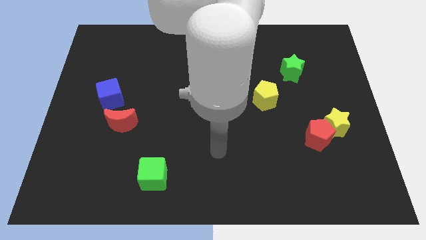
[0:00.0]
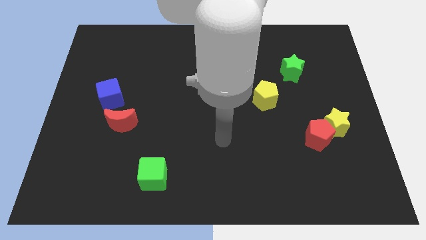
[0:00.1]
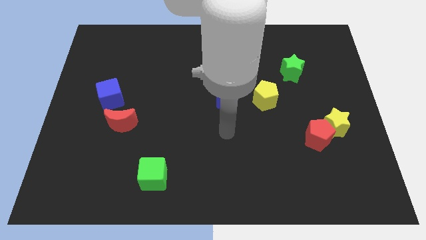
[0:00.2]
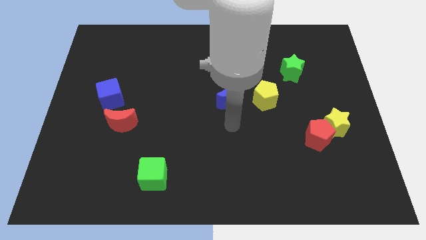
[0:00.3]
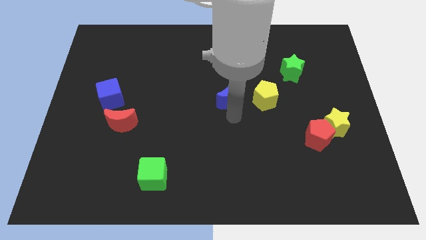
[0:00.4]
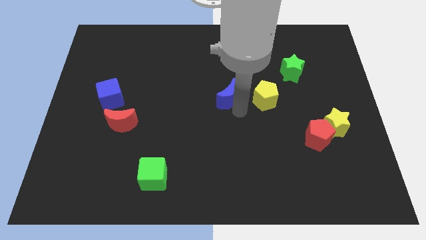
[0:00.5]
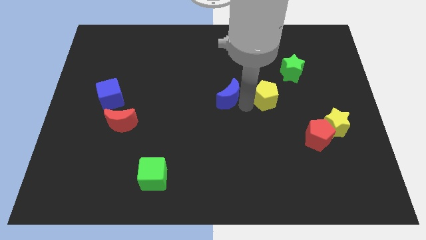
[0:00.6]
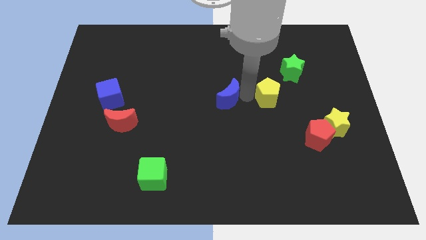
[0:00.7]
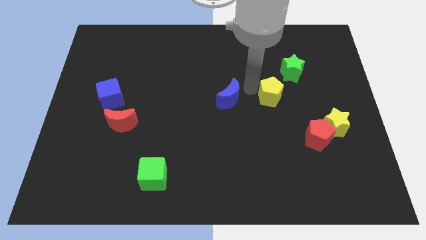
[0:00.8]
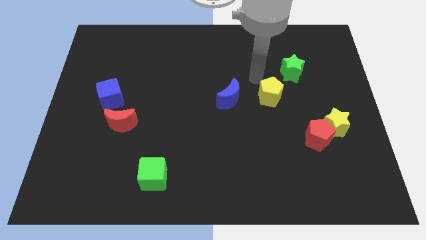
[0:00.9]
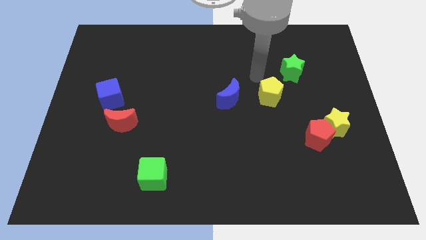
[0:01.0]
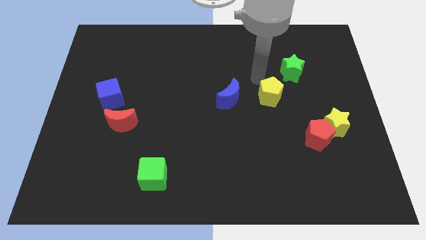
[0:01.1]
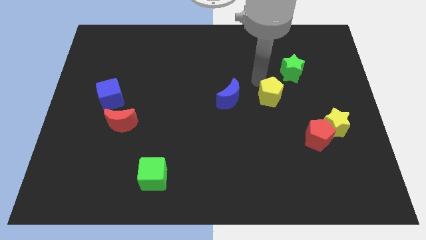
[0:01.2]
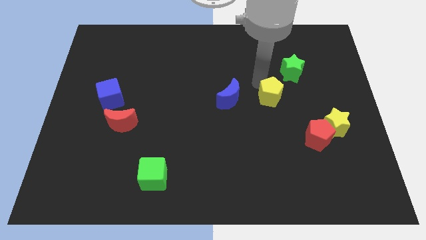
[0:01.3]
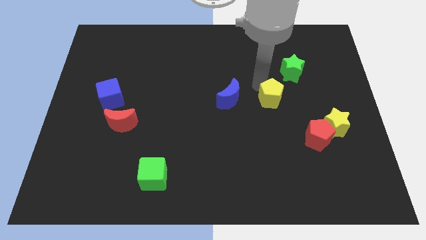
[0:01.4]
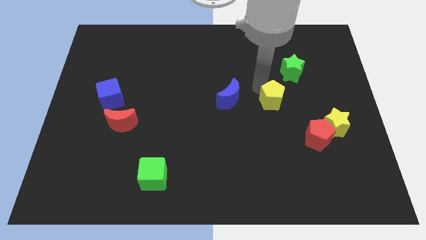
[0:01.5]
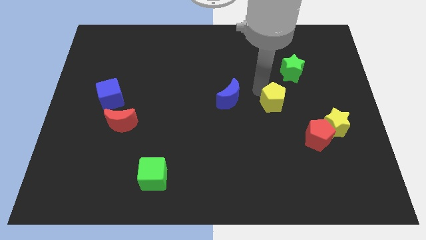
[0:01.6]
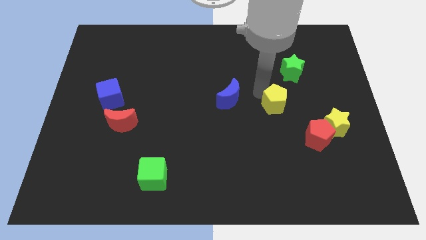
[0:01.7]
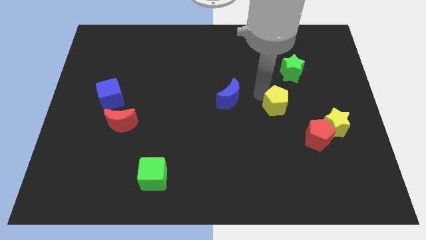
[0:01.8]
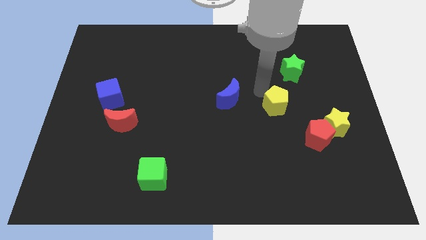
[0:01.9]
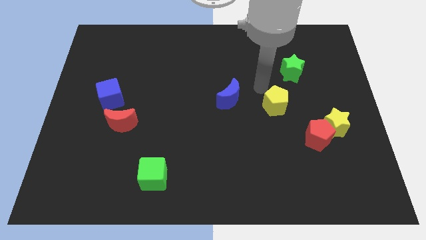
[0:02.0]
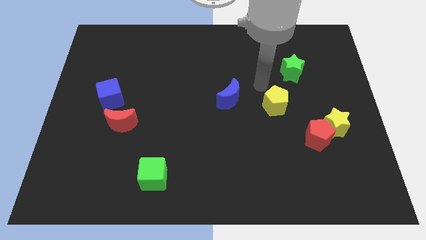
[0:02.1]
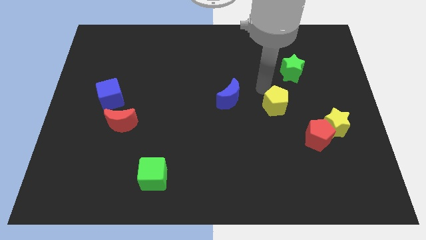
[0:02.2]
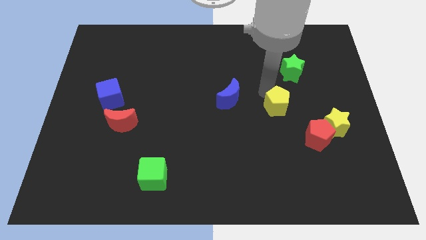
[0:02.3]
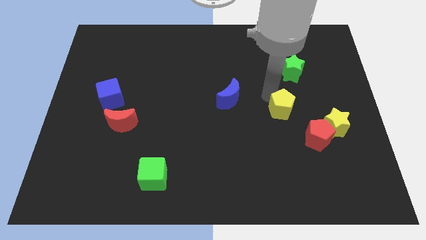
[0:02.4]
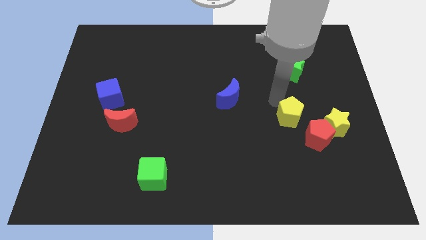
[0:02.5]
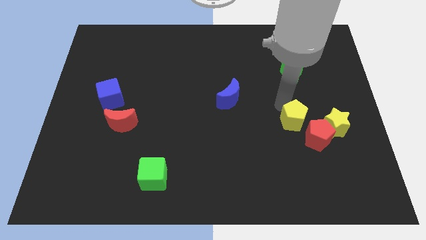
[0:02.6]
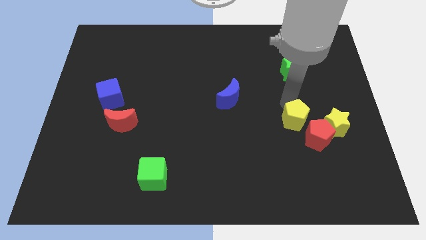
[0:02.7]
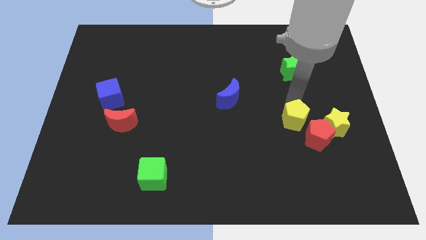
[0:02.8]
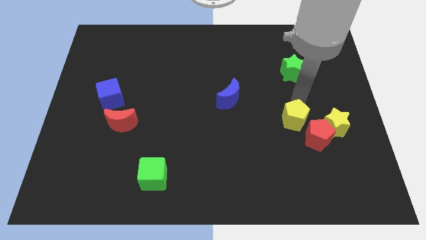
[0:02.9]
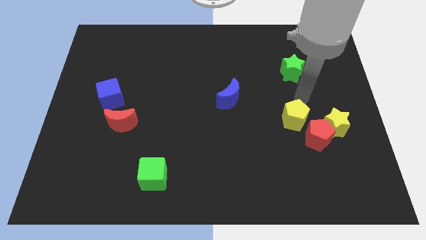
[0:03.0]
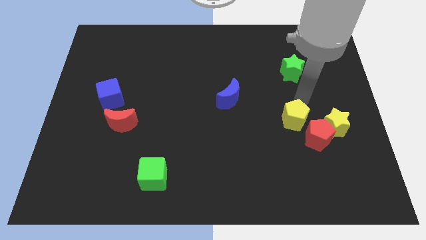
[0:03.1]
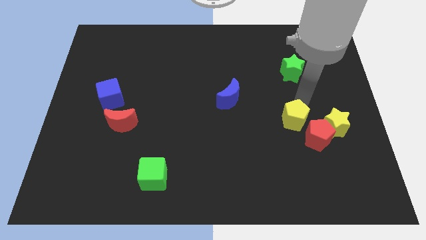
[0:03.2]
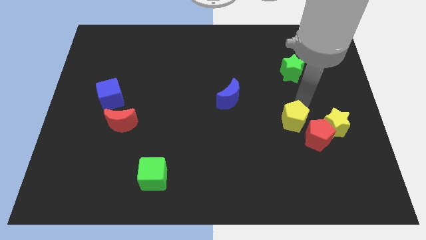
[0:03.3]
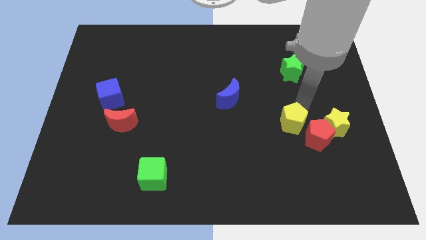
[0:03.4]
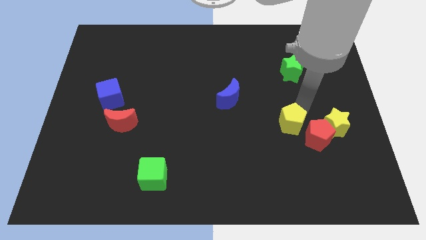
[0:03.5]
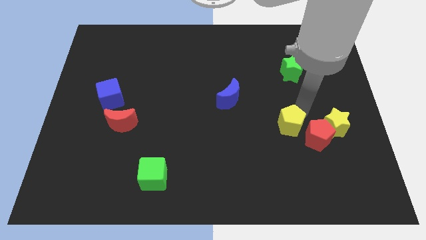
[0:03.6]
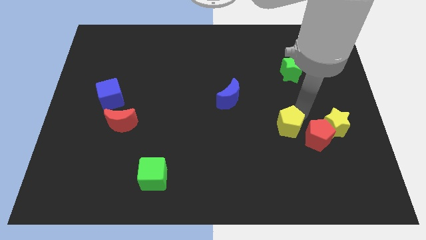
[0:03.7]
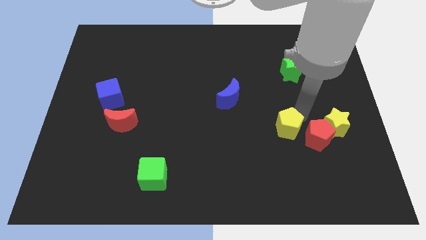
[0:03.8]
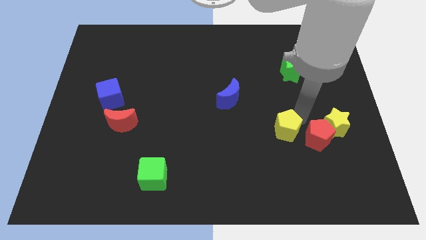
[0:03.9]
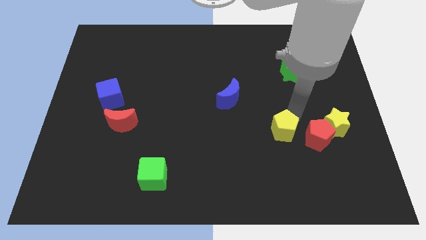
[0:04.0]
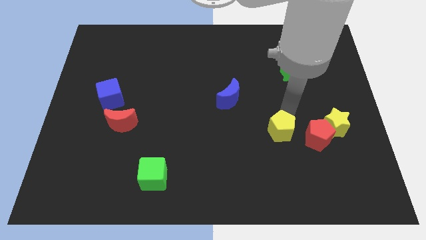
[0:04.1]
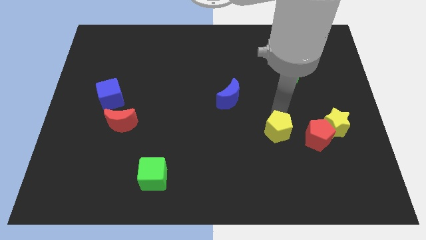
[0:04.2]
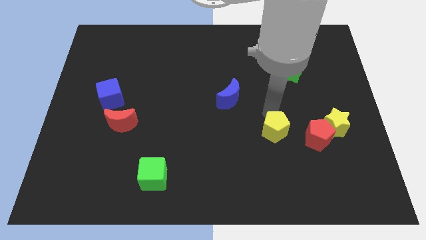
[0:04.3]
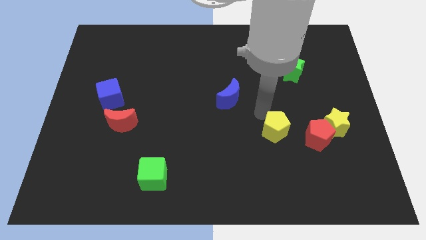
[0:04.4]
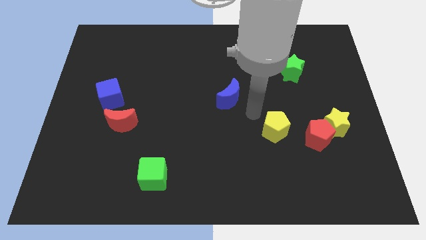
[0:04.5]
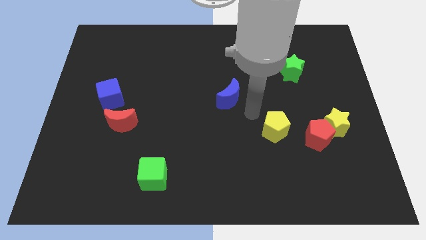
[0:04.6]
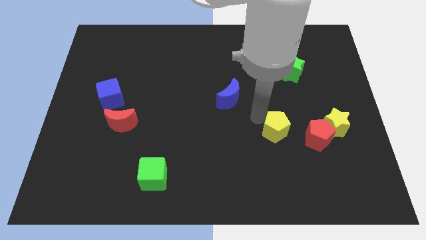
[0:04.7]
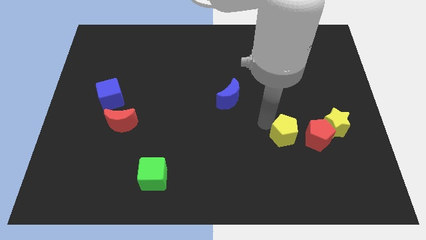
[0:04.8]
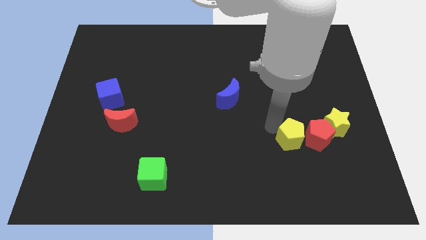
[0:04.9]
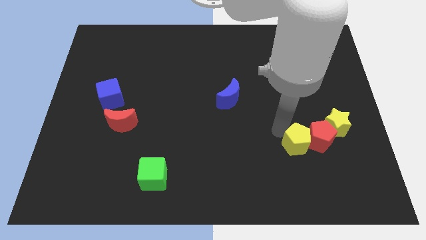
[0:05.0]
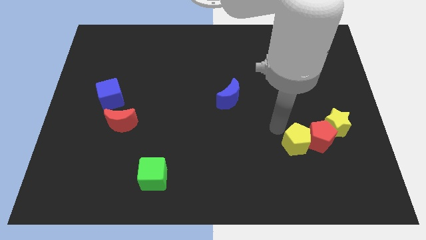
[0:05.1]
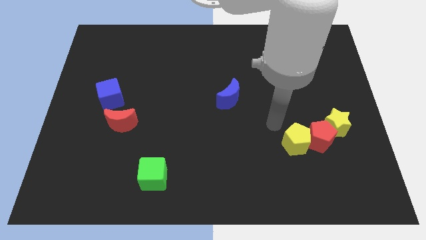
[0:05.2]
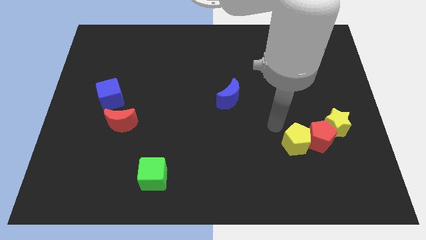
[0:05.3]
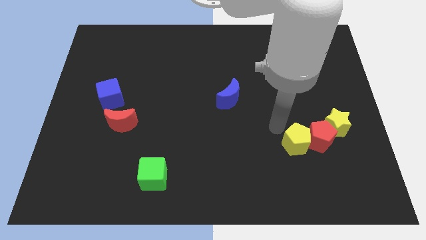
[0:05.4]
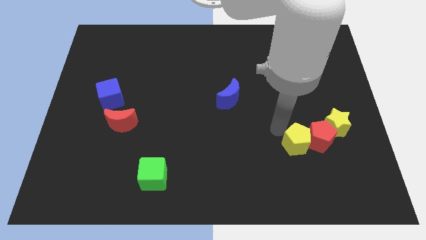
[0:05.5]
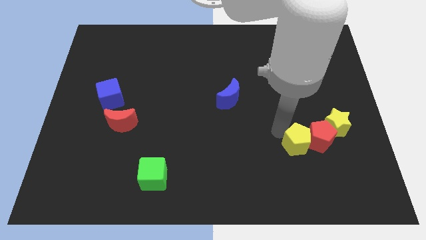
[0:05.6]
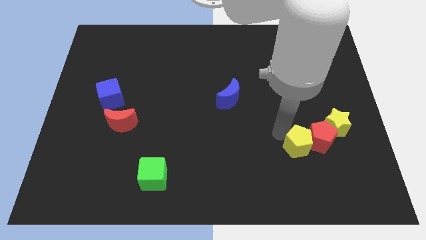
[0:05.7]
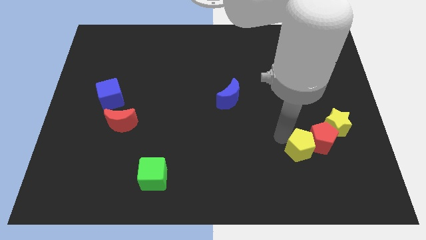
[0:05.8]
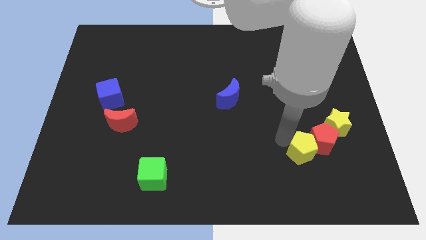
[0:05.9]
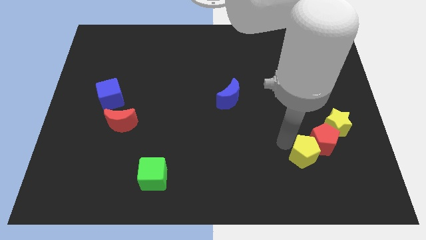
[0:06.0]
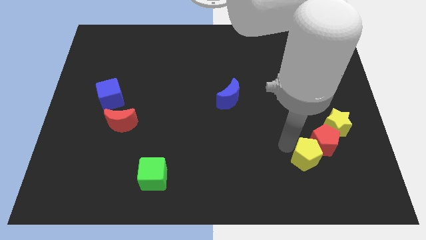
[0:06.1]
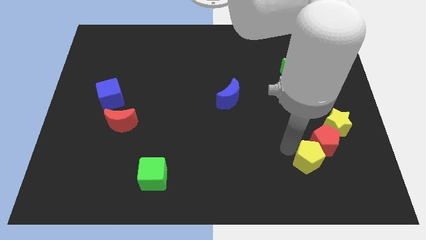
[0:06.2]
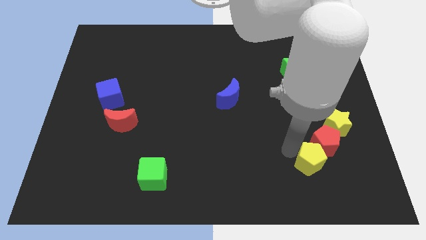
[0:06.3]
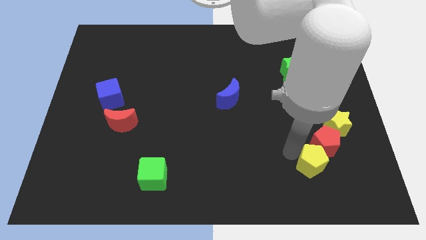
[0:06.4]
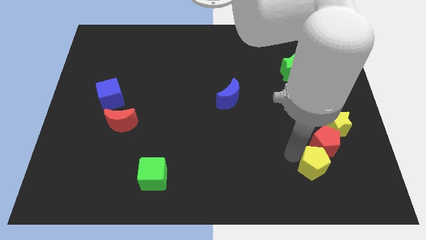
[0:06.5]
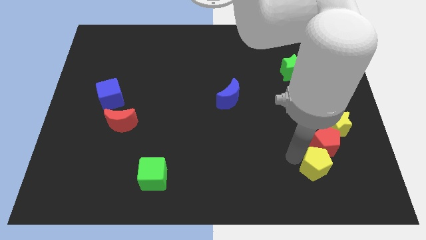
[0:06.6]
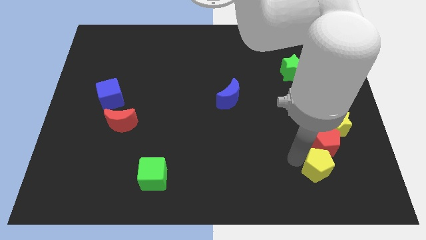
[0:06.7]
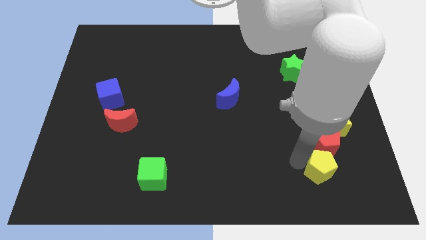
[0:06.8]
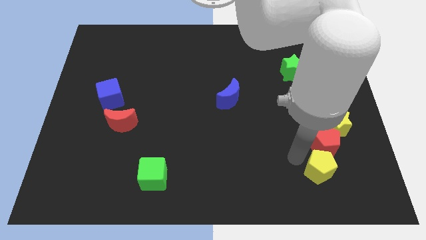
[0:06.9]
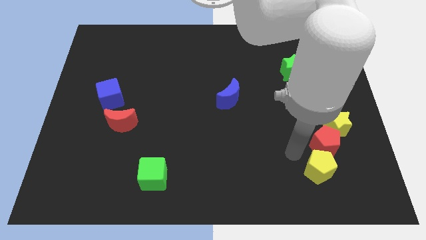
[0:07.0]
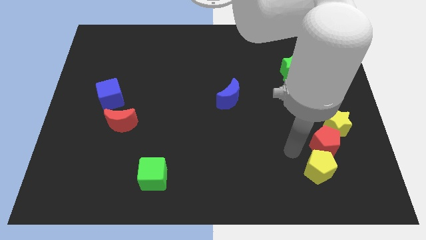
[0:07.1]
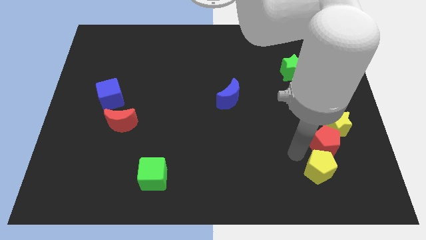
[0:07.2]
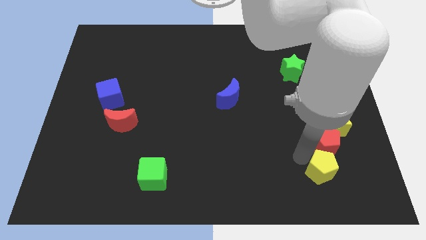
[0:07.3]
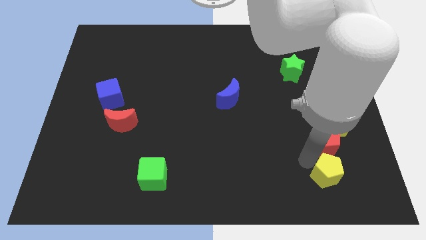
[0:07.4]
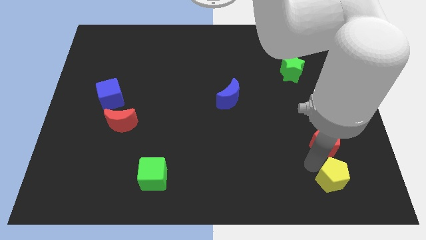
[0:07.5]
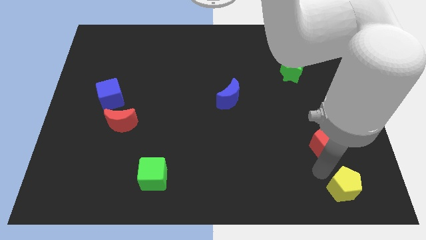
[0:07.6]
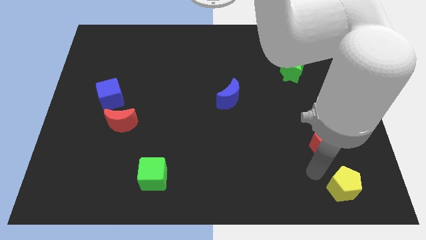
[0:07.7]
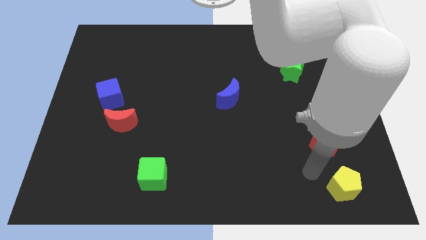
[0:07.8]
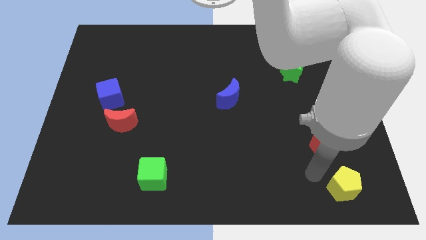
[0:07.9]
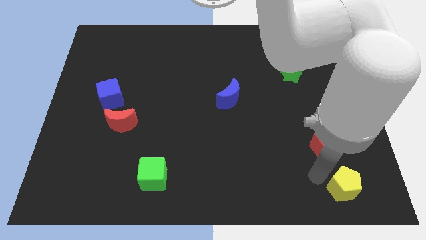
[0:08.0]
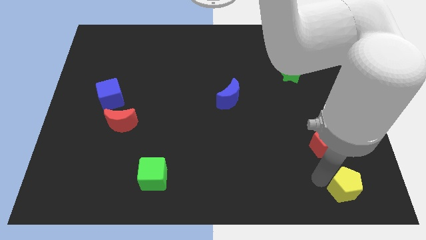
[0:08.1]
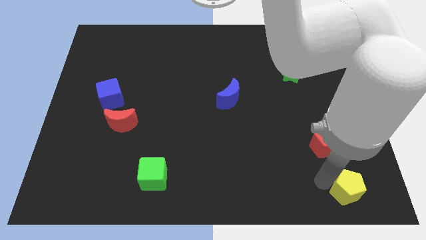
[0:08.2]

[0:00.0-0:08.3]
slide the yellow pentagon to the bottom right
